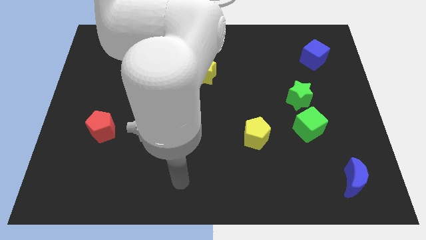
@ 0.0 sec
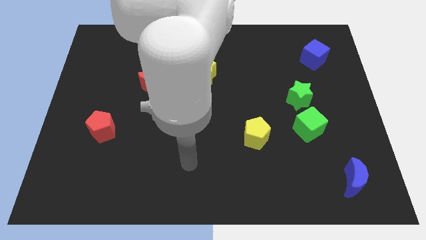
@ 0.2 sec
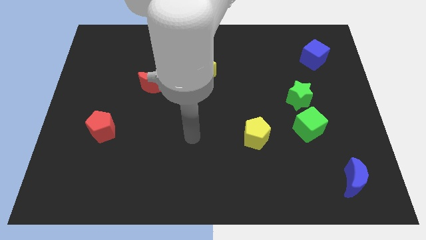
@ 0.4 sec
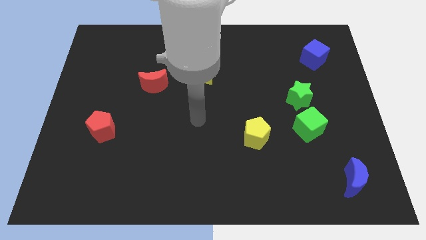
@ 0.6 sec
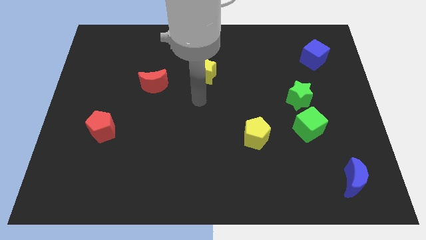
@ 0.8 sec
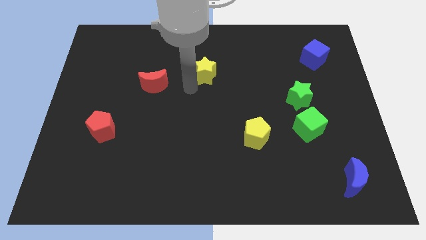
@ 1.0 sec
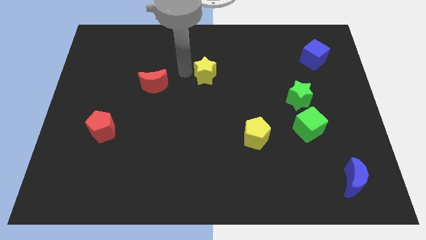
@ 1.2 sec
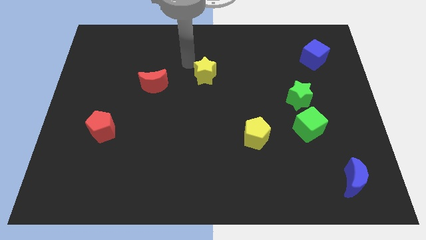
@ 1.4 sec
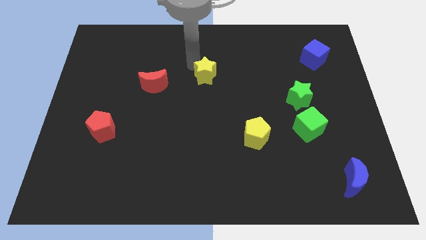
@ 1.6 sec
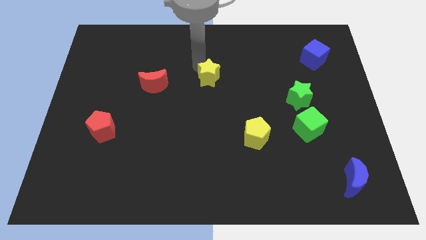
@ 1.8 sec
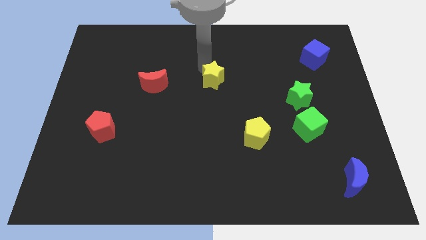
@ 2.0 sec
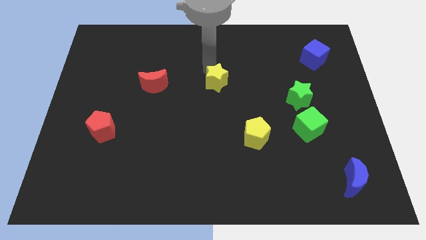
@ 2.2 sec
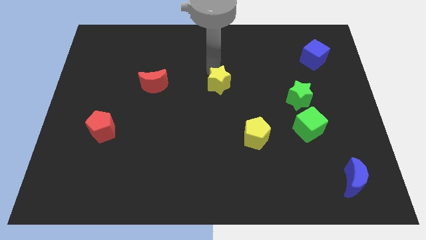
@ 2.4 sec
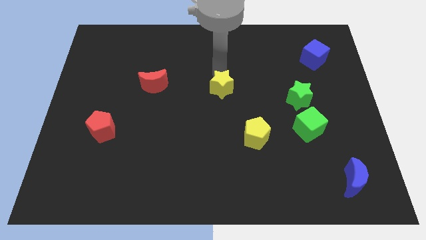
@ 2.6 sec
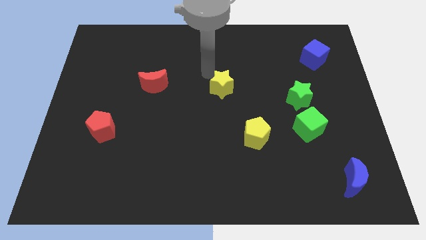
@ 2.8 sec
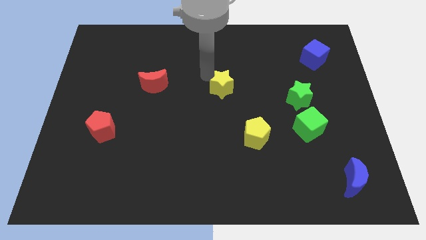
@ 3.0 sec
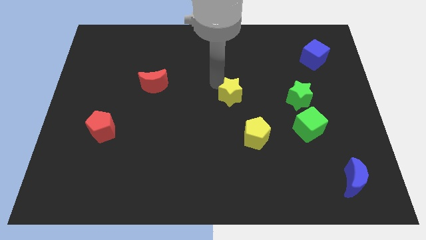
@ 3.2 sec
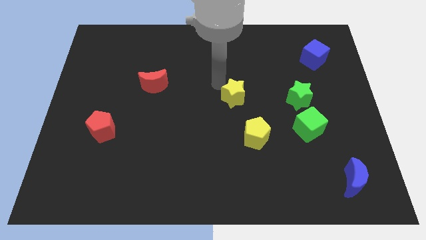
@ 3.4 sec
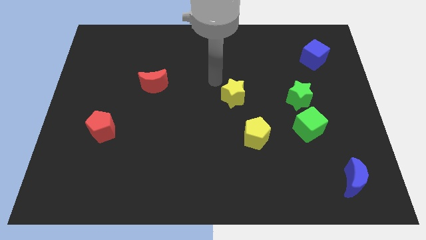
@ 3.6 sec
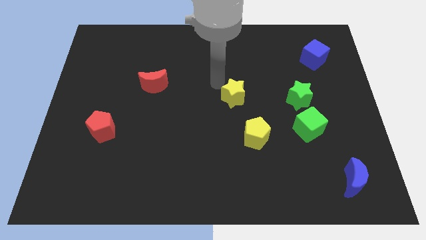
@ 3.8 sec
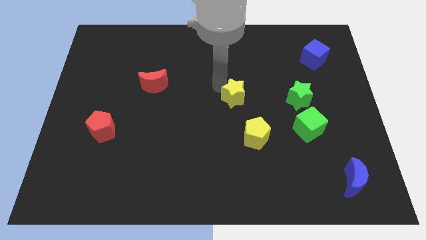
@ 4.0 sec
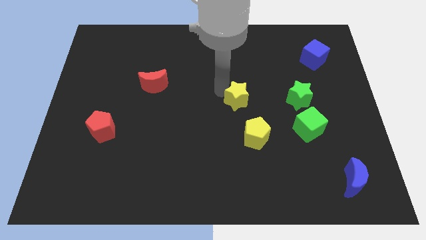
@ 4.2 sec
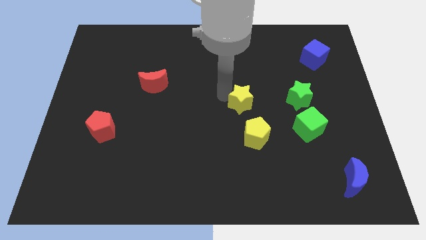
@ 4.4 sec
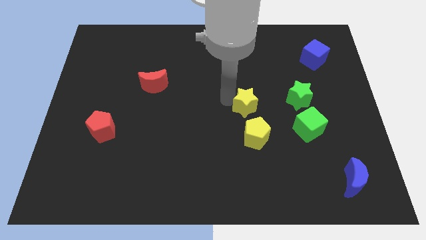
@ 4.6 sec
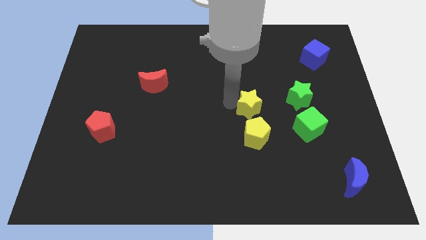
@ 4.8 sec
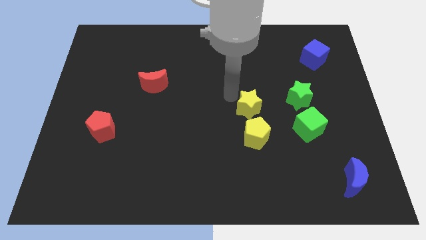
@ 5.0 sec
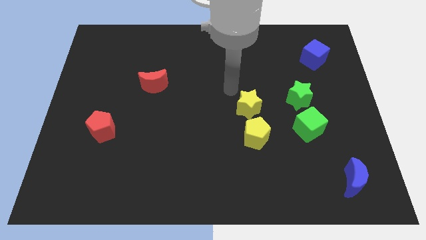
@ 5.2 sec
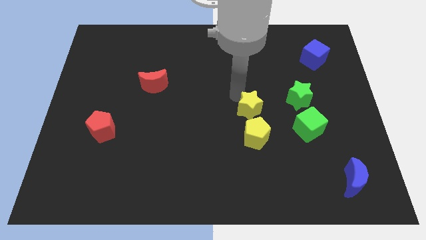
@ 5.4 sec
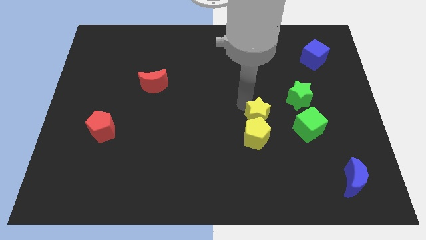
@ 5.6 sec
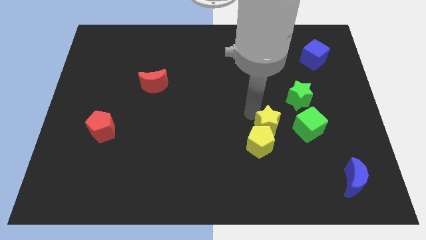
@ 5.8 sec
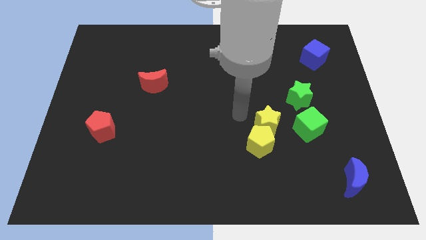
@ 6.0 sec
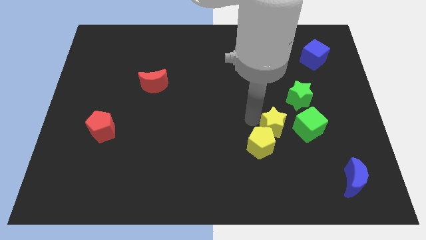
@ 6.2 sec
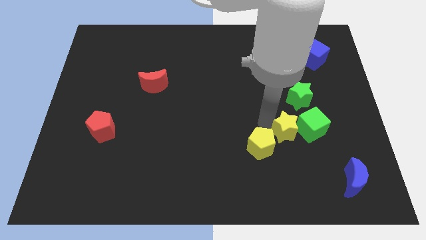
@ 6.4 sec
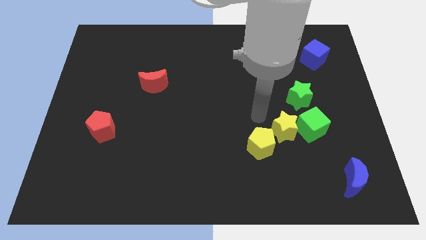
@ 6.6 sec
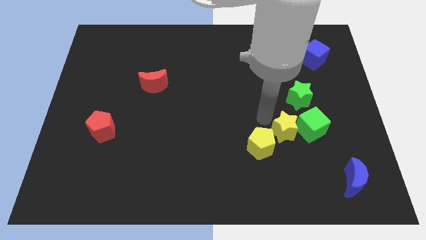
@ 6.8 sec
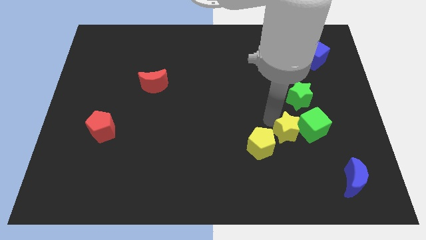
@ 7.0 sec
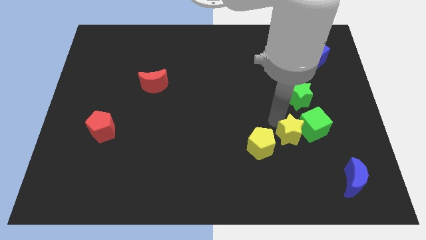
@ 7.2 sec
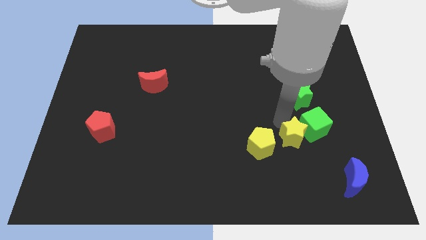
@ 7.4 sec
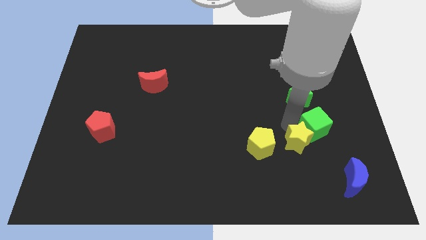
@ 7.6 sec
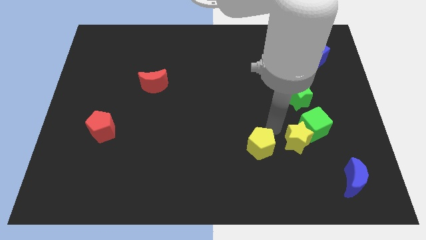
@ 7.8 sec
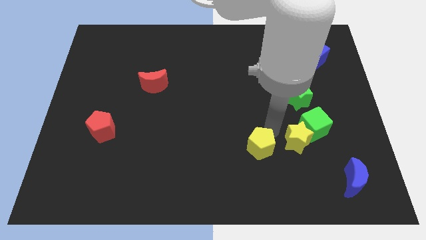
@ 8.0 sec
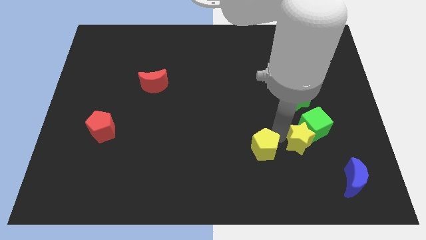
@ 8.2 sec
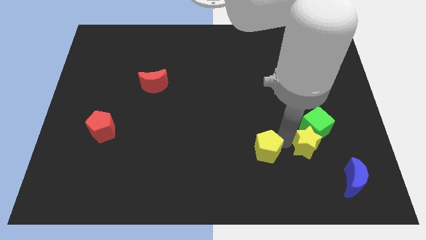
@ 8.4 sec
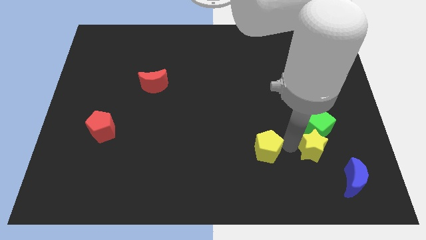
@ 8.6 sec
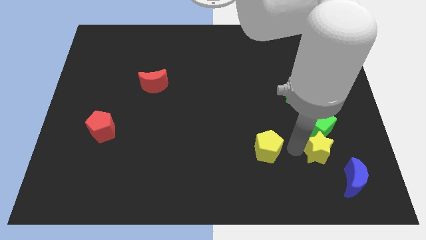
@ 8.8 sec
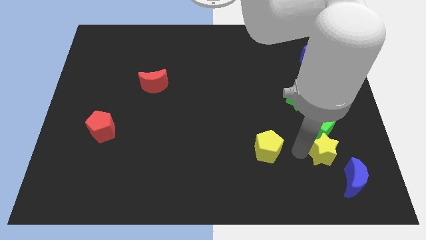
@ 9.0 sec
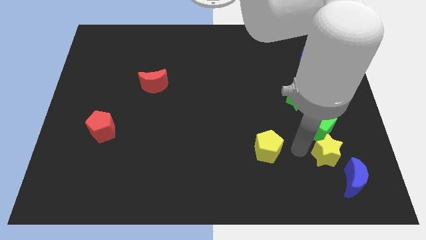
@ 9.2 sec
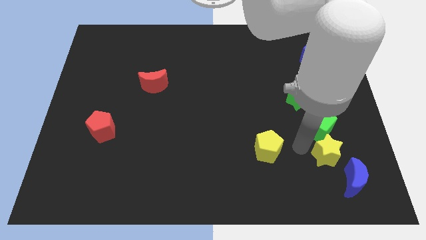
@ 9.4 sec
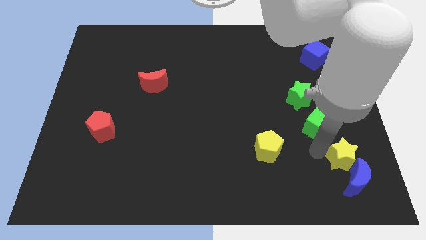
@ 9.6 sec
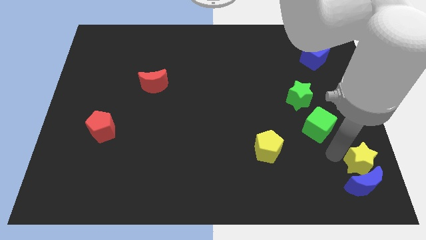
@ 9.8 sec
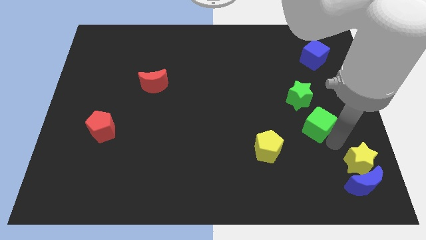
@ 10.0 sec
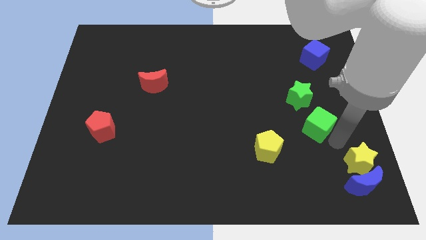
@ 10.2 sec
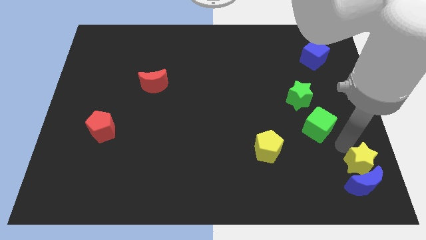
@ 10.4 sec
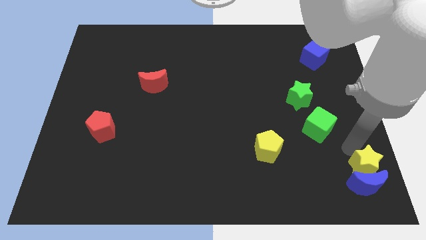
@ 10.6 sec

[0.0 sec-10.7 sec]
slide the yellow star to the lower right corner

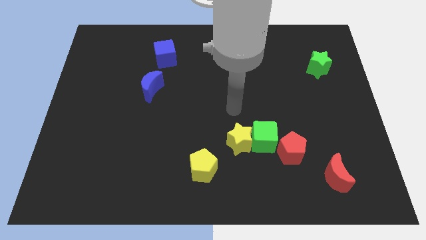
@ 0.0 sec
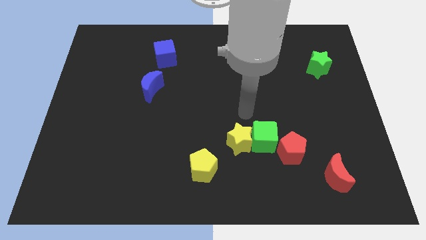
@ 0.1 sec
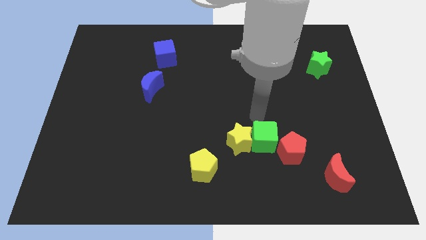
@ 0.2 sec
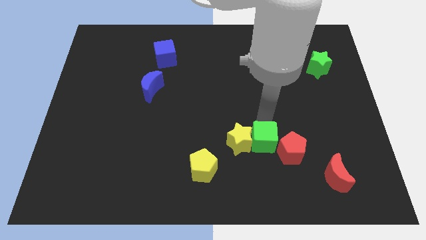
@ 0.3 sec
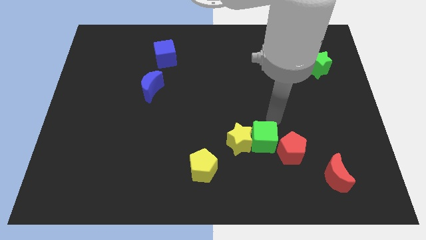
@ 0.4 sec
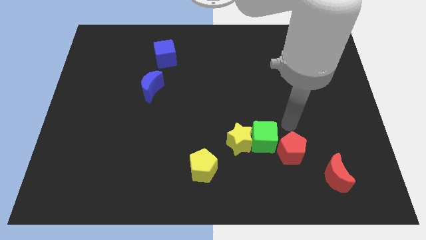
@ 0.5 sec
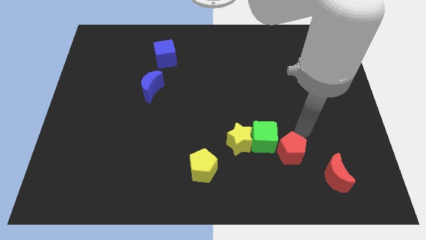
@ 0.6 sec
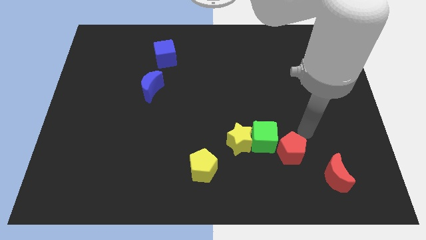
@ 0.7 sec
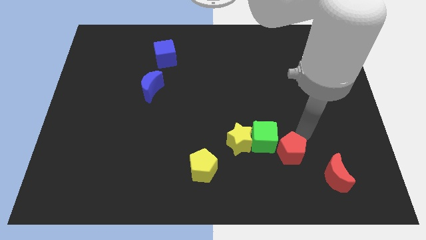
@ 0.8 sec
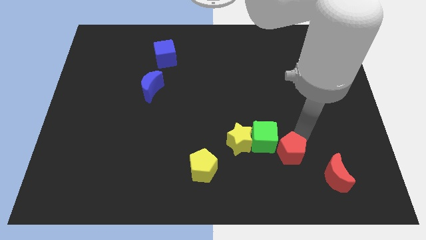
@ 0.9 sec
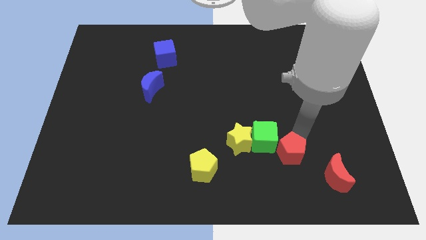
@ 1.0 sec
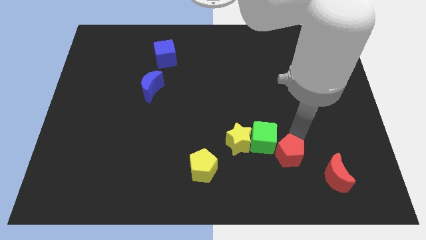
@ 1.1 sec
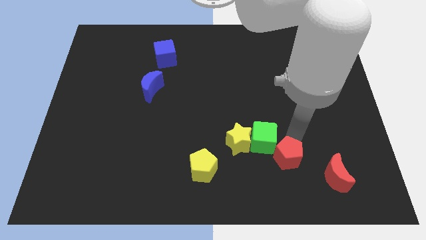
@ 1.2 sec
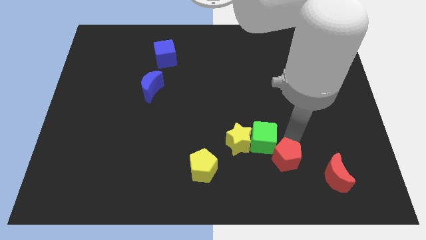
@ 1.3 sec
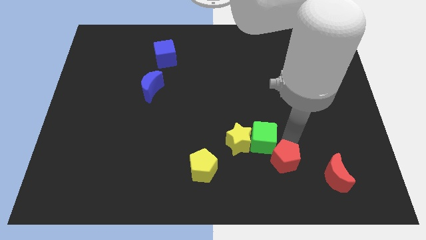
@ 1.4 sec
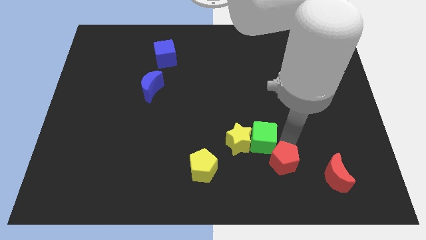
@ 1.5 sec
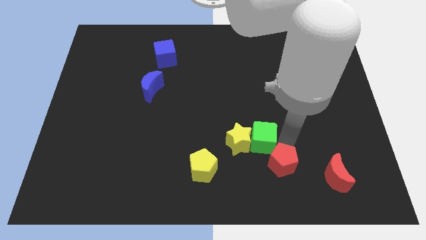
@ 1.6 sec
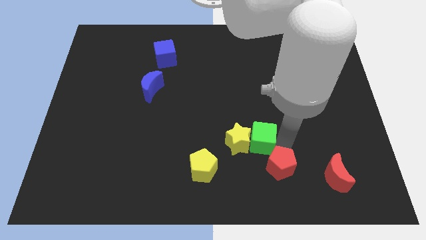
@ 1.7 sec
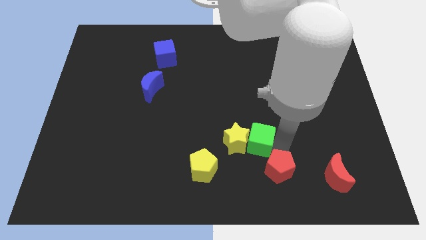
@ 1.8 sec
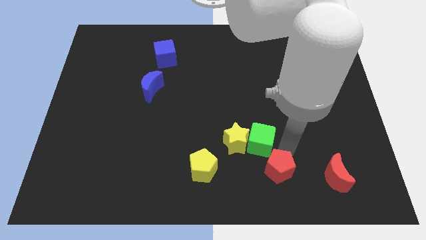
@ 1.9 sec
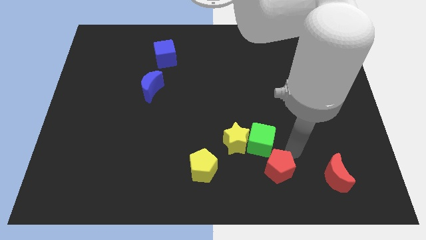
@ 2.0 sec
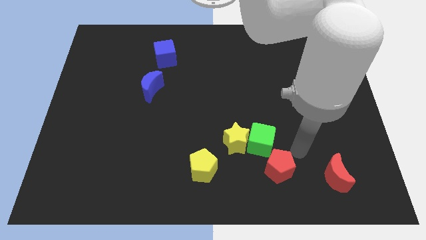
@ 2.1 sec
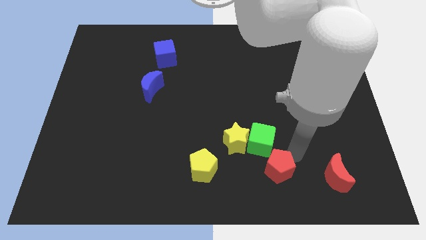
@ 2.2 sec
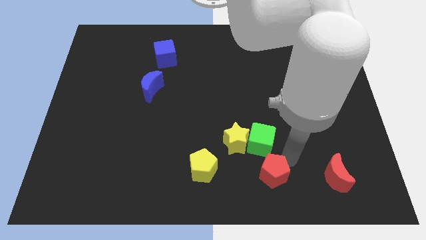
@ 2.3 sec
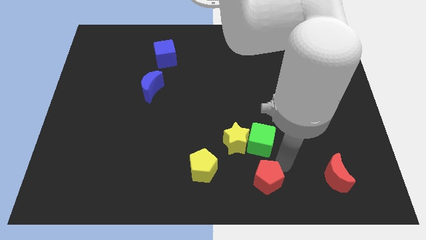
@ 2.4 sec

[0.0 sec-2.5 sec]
push the red pentagon to the bottom
